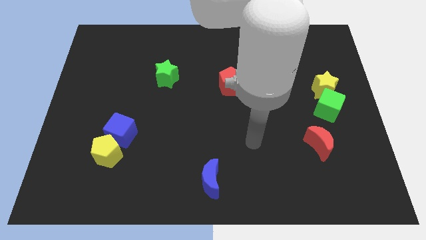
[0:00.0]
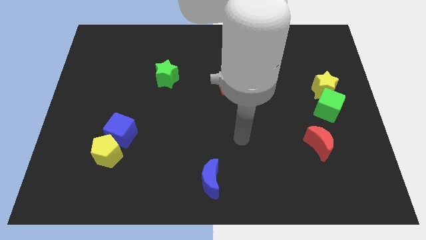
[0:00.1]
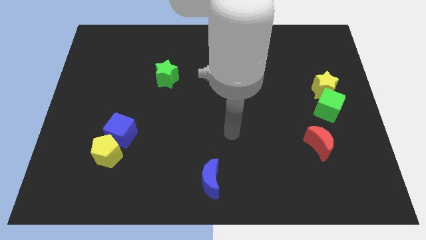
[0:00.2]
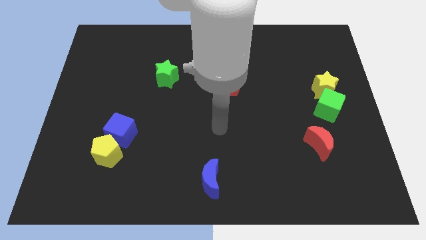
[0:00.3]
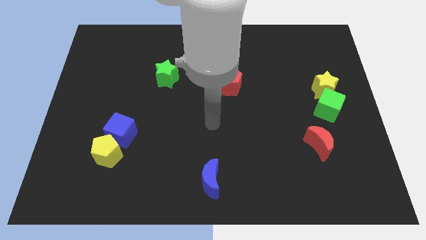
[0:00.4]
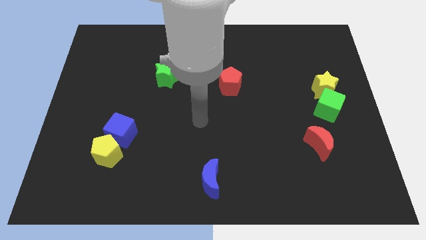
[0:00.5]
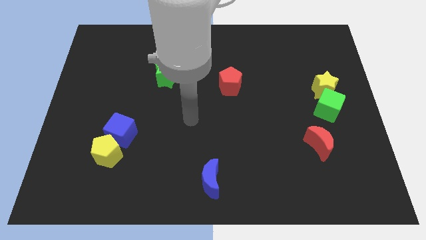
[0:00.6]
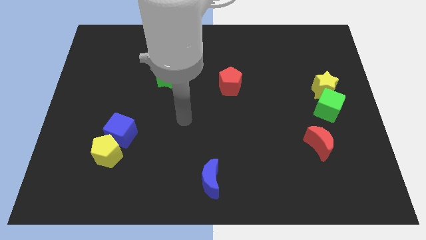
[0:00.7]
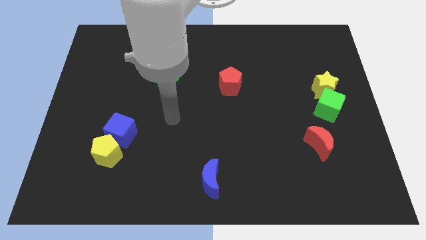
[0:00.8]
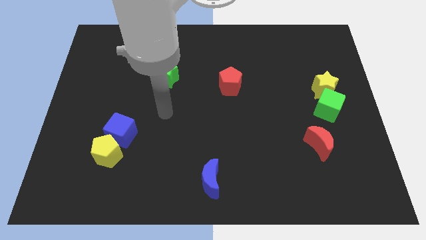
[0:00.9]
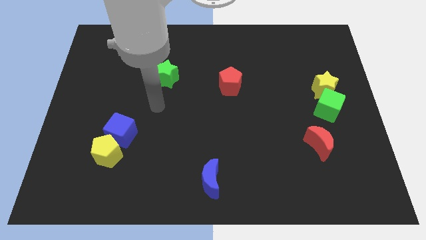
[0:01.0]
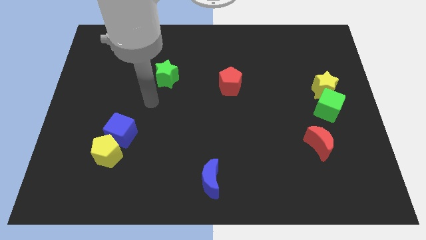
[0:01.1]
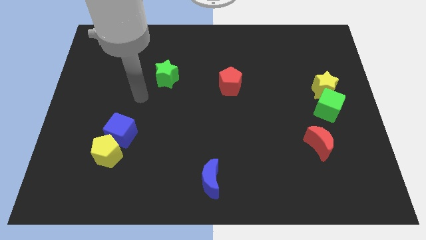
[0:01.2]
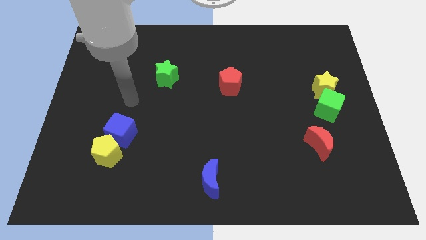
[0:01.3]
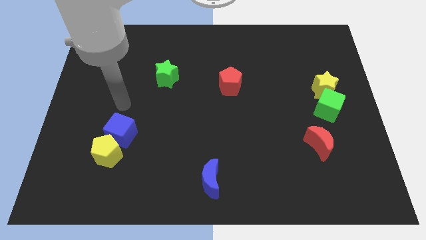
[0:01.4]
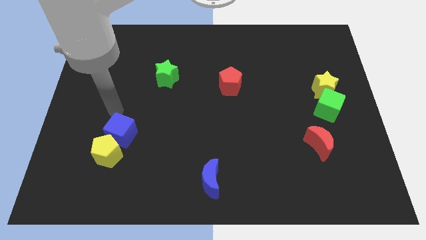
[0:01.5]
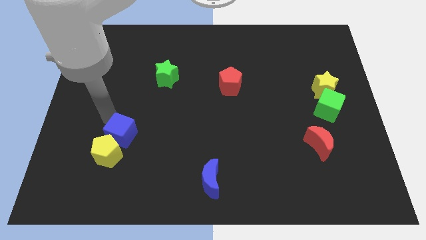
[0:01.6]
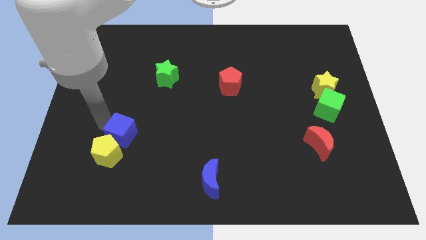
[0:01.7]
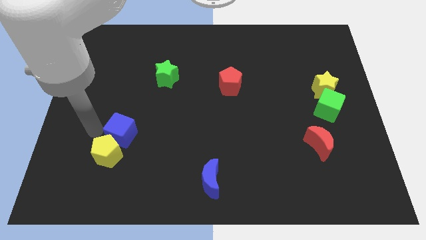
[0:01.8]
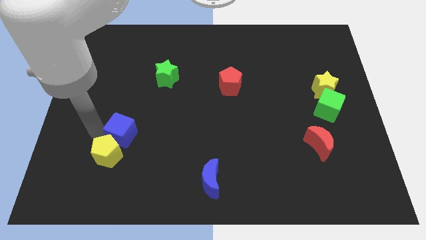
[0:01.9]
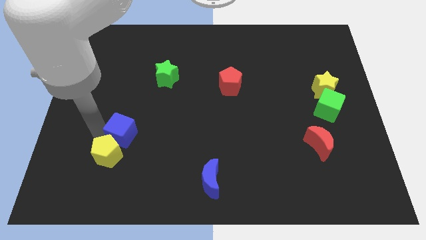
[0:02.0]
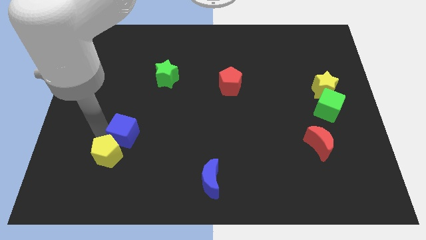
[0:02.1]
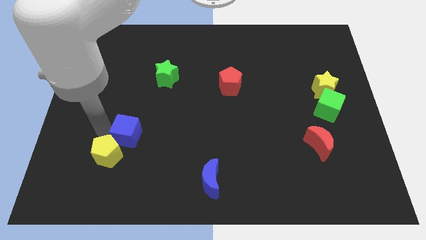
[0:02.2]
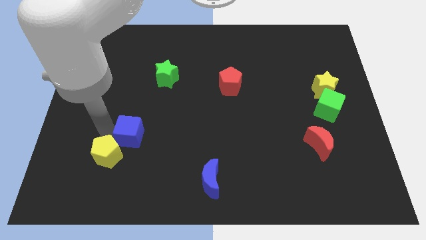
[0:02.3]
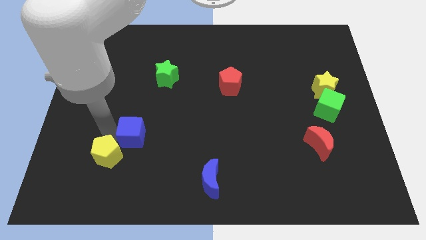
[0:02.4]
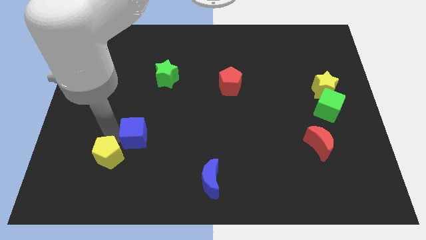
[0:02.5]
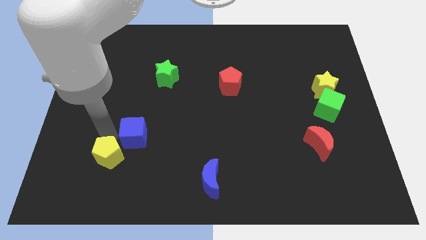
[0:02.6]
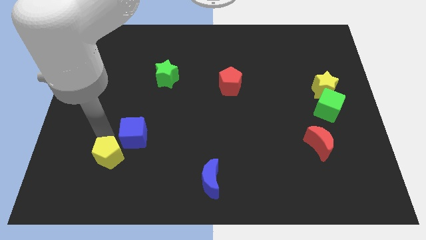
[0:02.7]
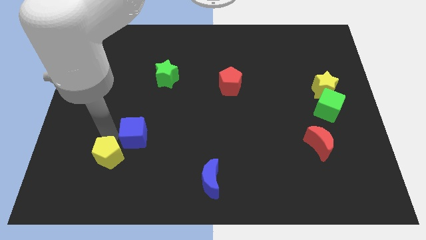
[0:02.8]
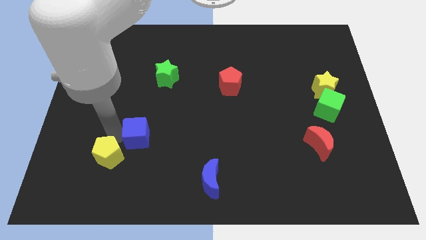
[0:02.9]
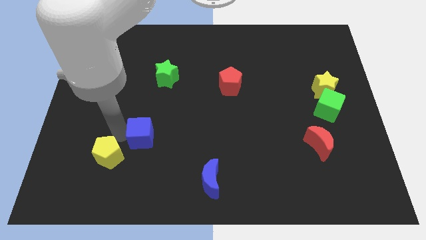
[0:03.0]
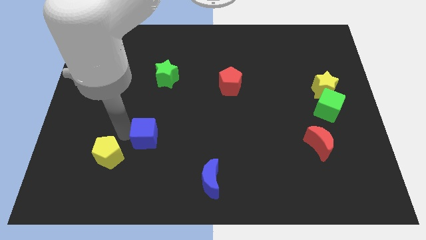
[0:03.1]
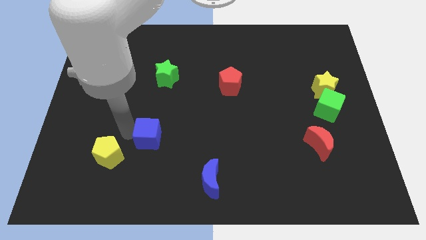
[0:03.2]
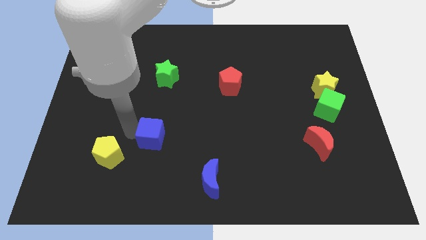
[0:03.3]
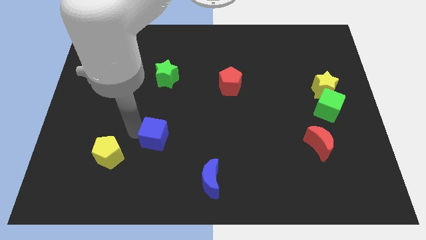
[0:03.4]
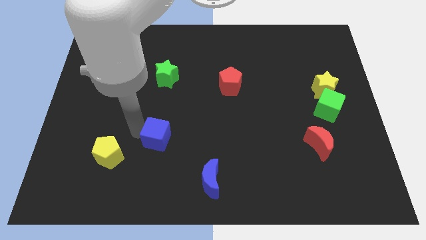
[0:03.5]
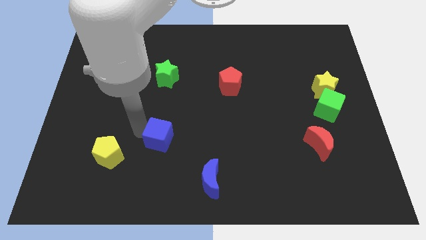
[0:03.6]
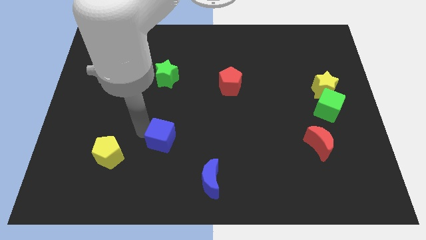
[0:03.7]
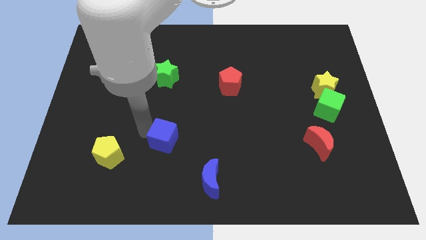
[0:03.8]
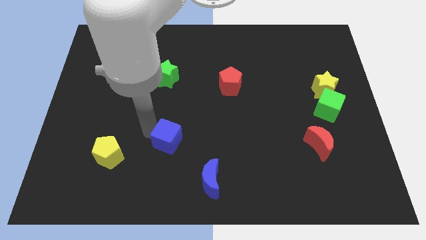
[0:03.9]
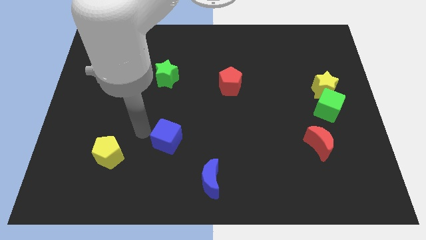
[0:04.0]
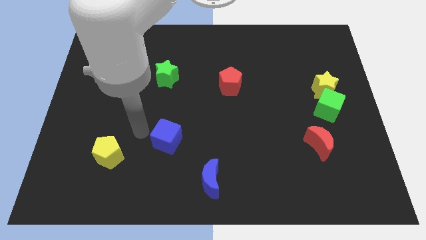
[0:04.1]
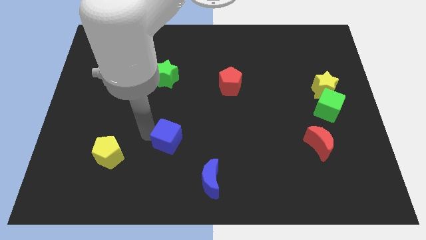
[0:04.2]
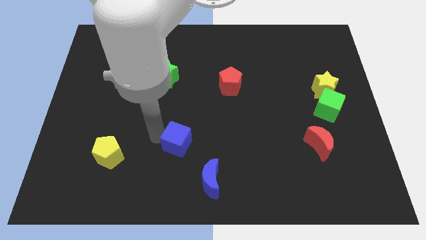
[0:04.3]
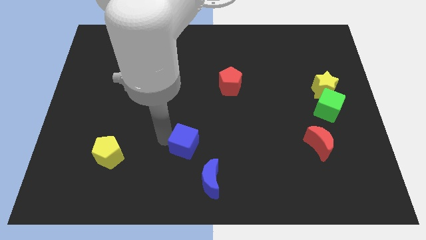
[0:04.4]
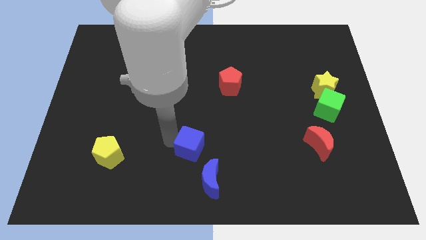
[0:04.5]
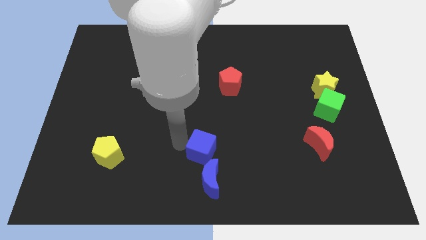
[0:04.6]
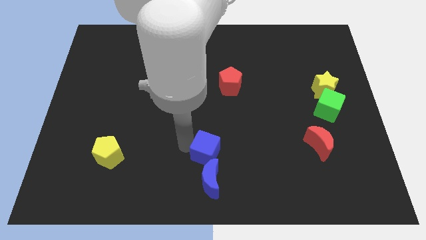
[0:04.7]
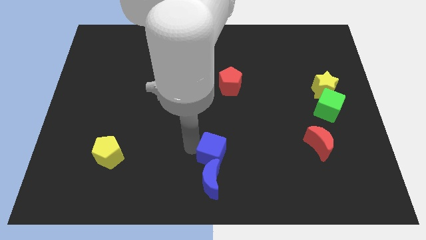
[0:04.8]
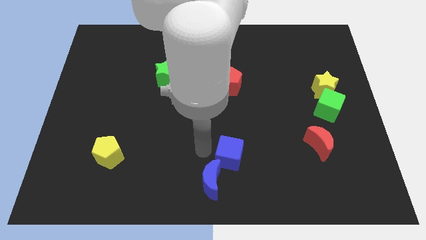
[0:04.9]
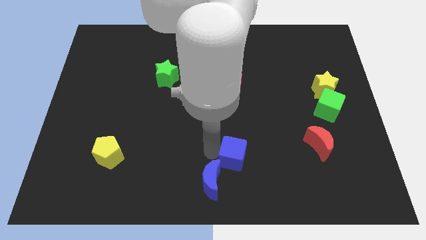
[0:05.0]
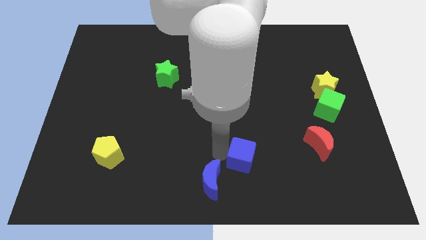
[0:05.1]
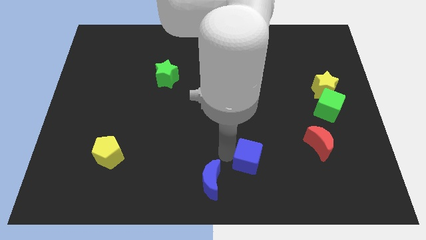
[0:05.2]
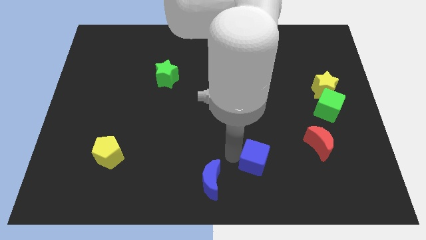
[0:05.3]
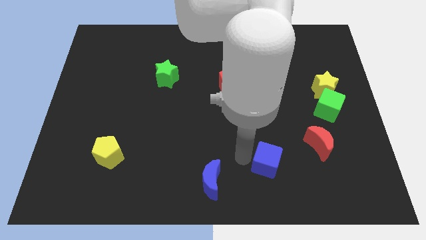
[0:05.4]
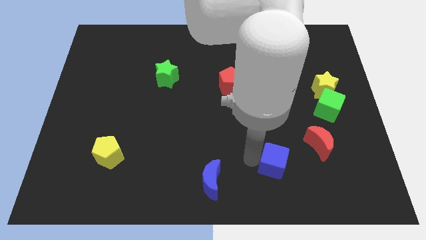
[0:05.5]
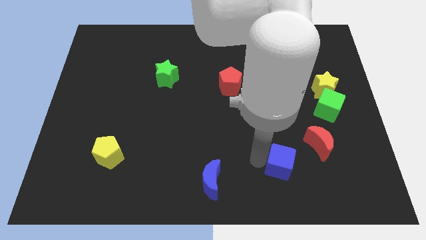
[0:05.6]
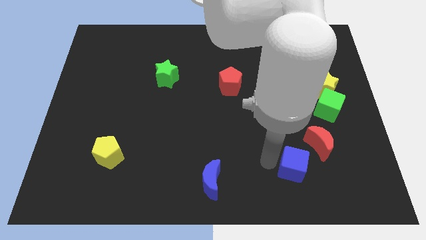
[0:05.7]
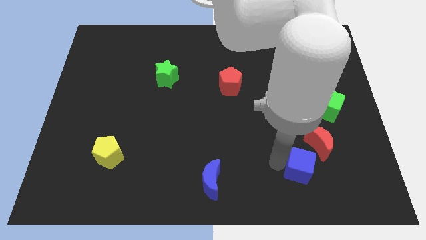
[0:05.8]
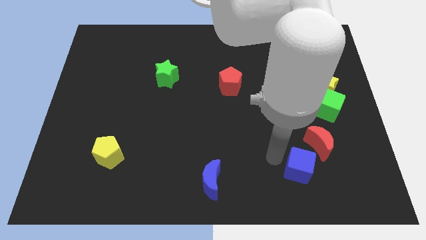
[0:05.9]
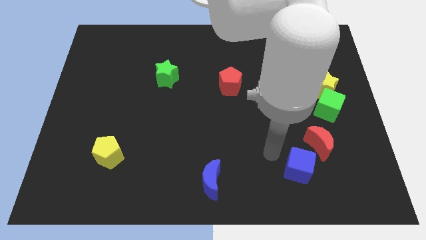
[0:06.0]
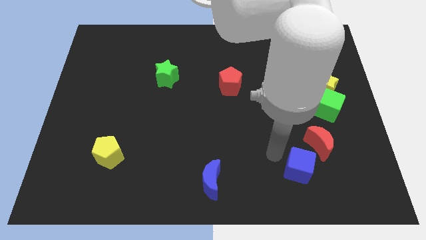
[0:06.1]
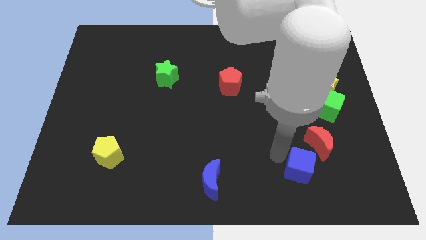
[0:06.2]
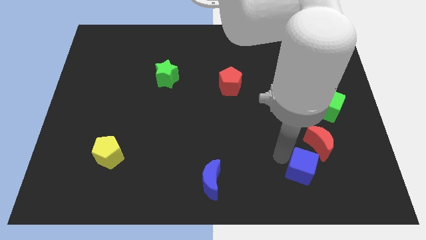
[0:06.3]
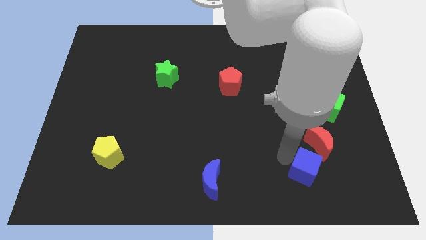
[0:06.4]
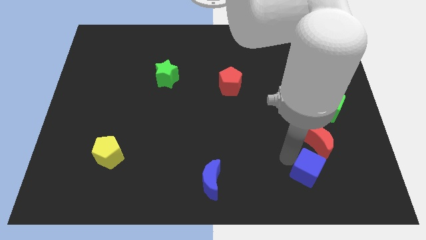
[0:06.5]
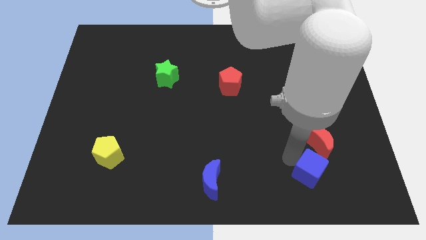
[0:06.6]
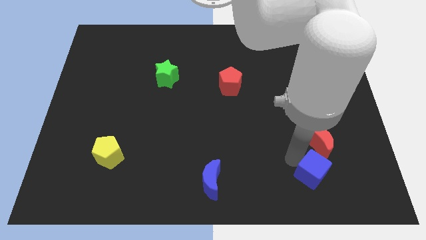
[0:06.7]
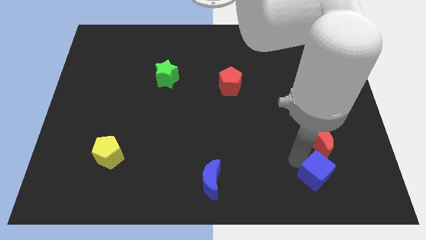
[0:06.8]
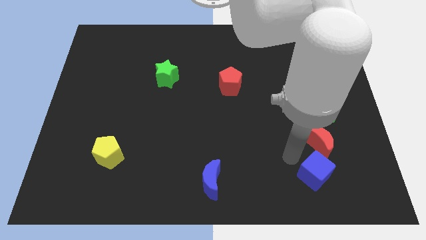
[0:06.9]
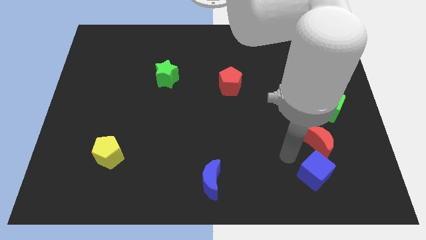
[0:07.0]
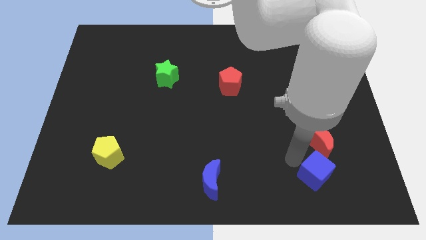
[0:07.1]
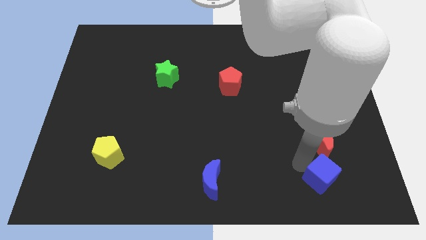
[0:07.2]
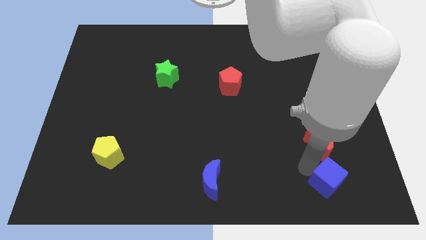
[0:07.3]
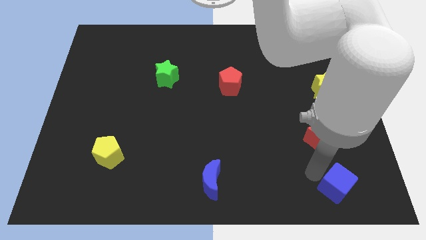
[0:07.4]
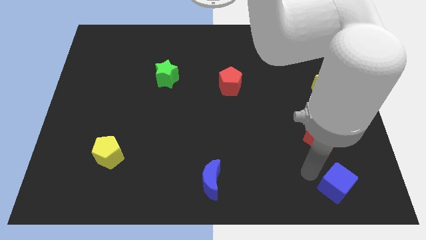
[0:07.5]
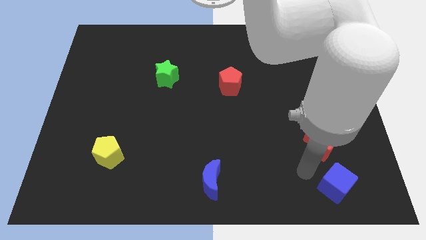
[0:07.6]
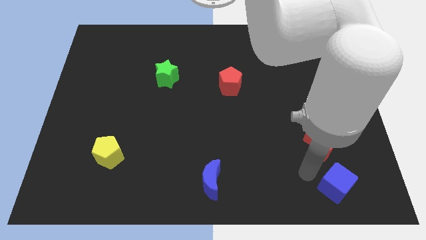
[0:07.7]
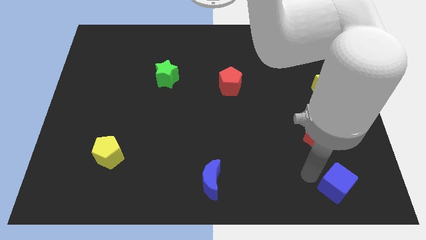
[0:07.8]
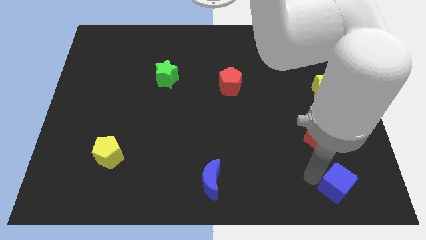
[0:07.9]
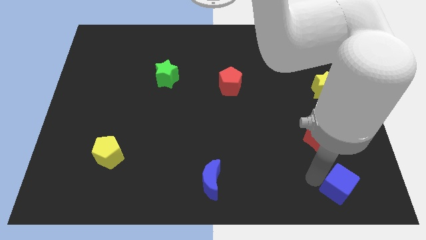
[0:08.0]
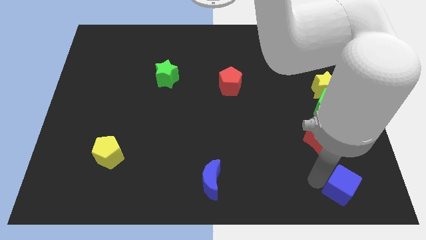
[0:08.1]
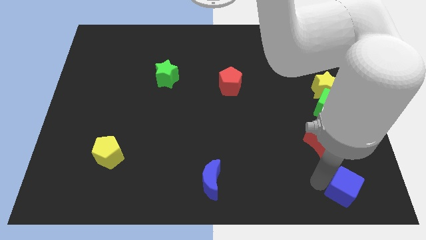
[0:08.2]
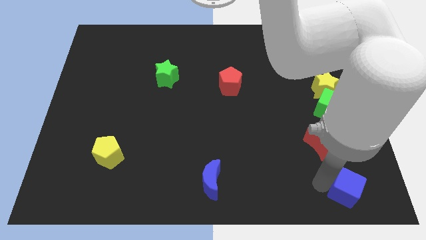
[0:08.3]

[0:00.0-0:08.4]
slide the blue cube to the bottom right
